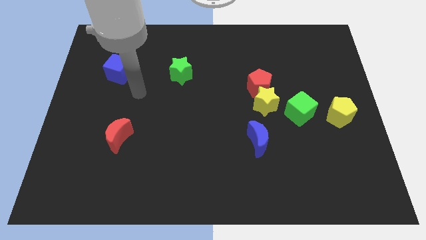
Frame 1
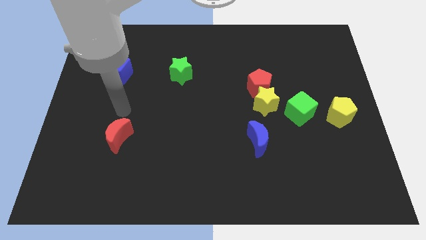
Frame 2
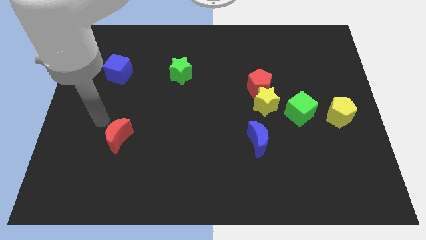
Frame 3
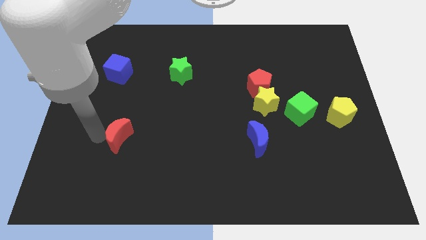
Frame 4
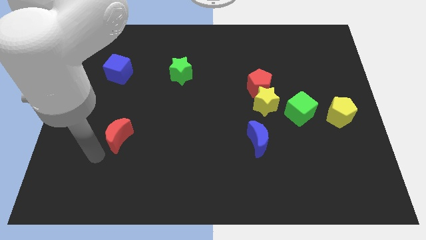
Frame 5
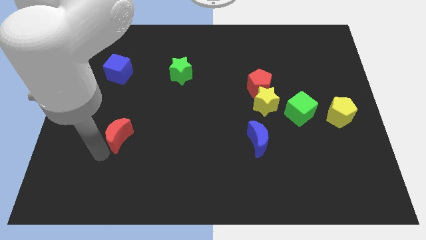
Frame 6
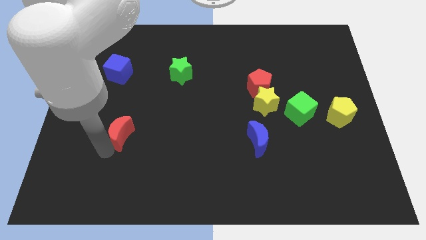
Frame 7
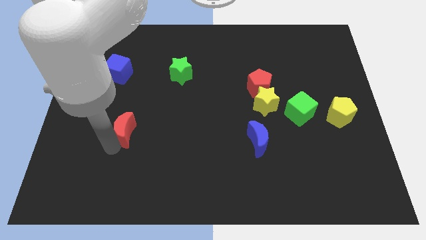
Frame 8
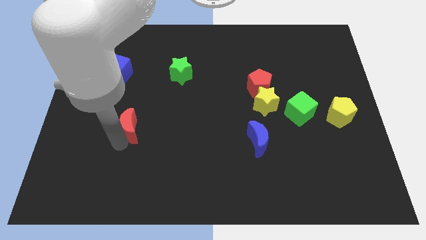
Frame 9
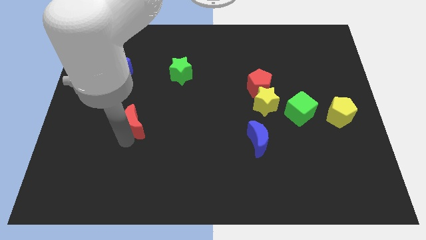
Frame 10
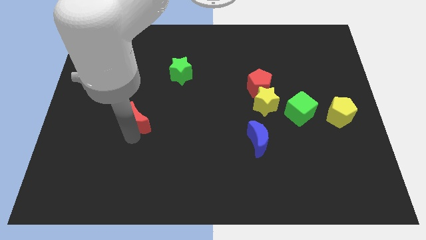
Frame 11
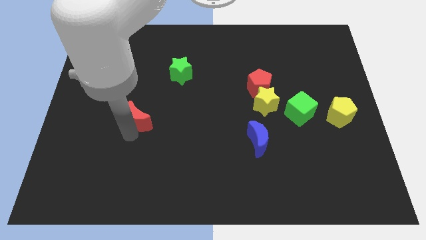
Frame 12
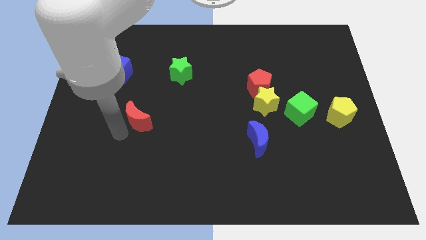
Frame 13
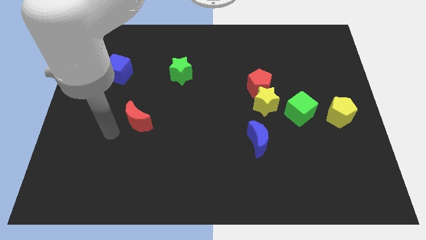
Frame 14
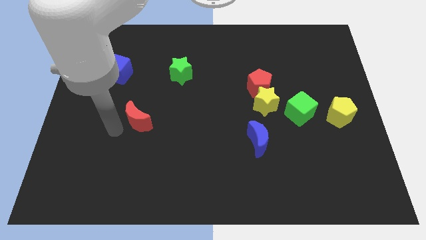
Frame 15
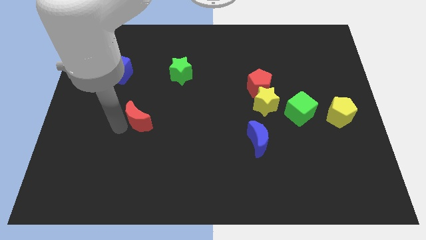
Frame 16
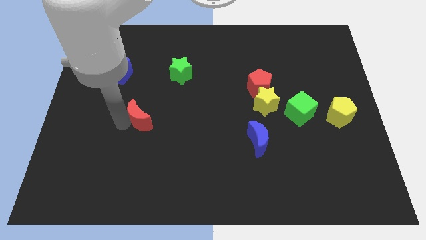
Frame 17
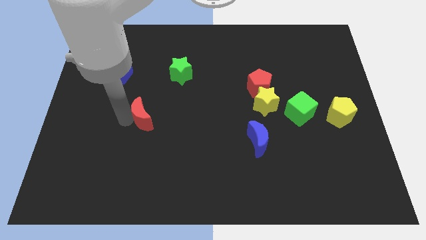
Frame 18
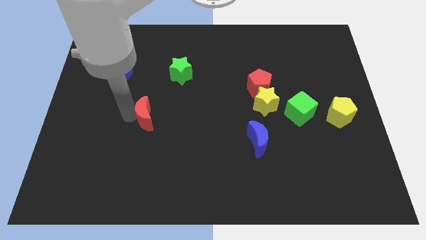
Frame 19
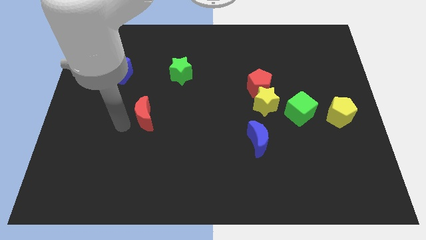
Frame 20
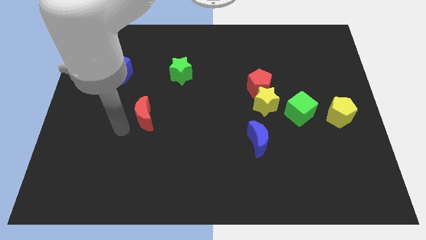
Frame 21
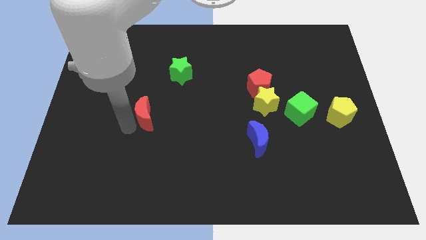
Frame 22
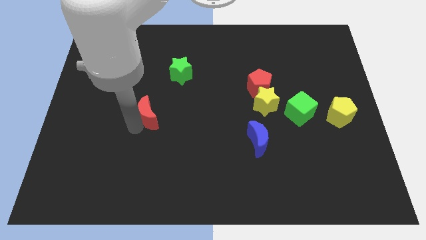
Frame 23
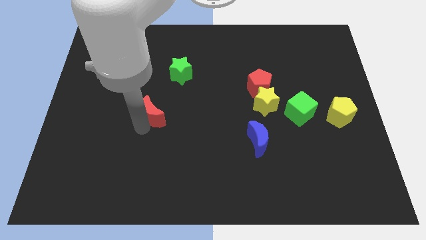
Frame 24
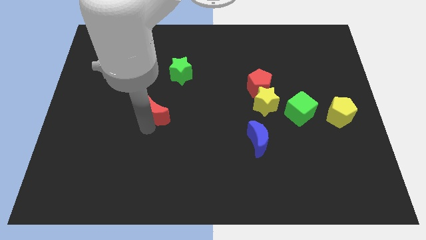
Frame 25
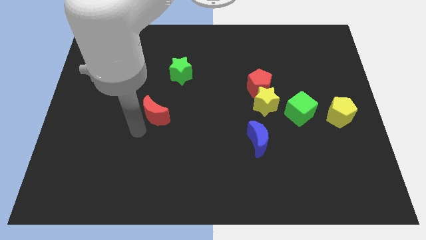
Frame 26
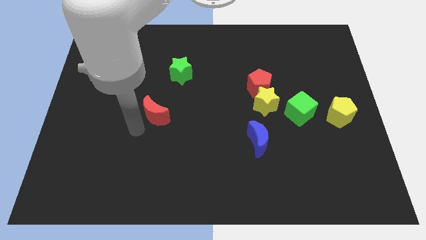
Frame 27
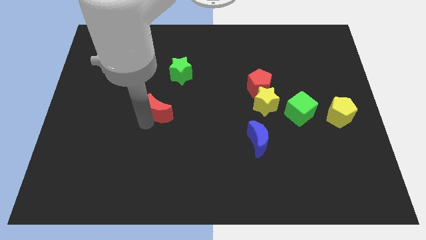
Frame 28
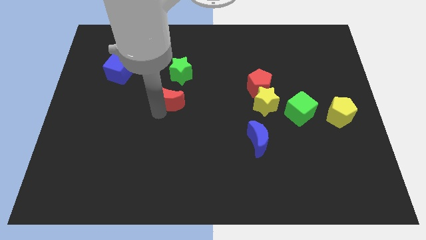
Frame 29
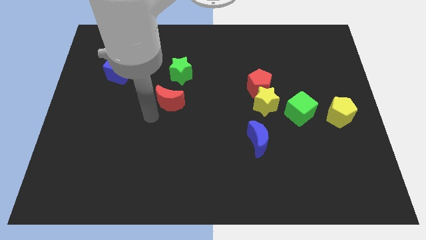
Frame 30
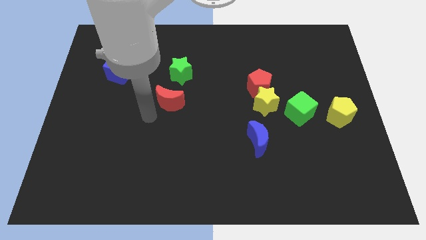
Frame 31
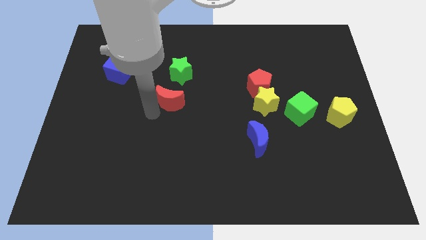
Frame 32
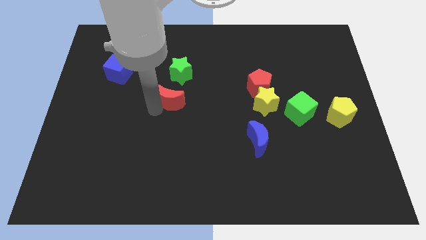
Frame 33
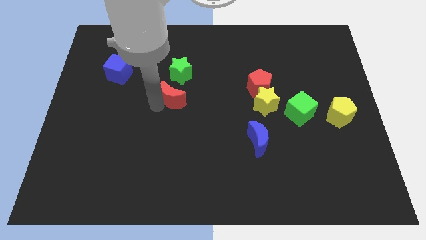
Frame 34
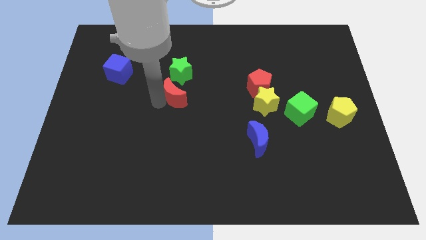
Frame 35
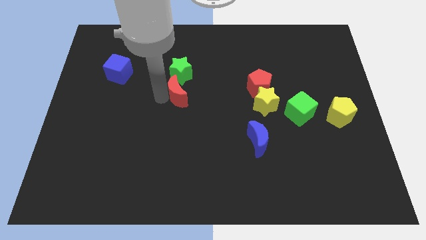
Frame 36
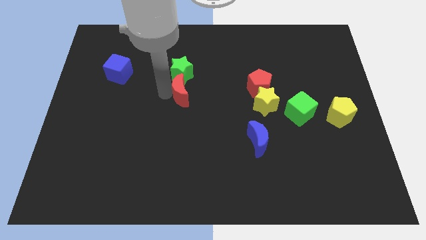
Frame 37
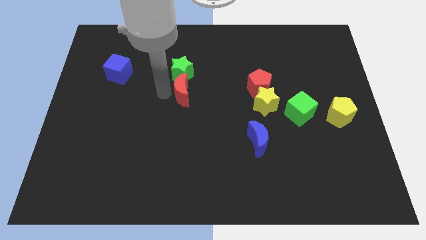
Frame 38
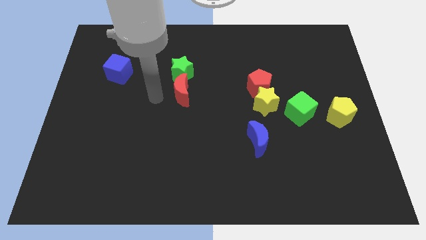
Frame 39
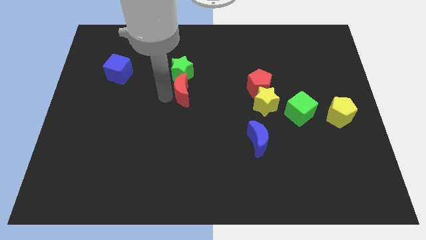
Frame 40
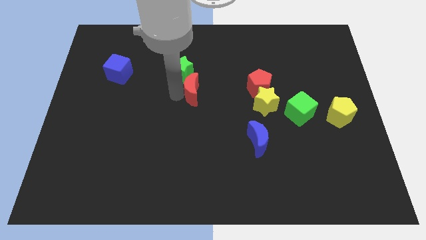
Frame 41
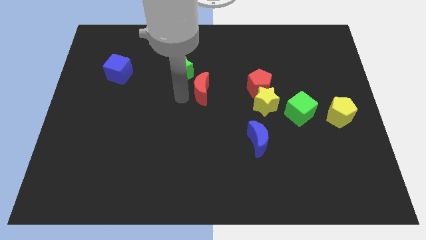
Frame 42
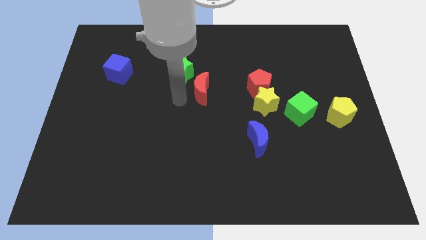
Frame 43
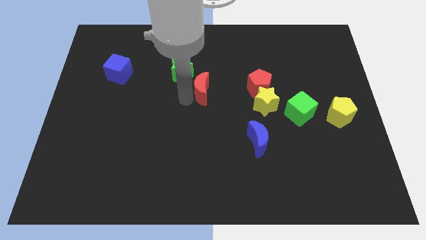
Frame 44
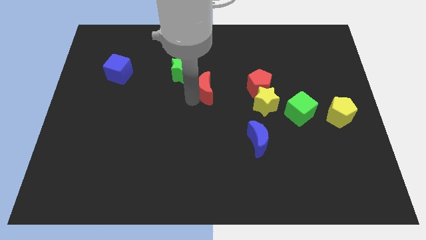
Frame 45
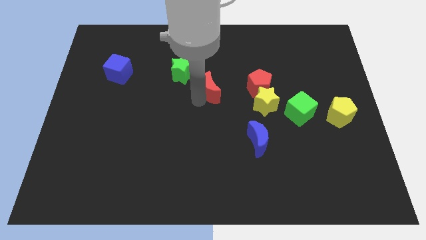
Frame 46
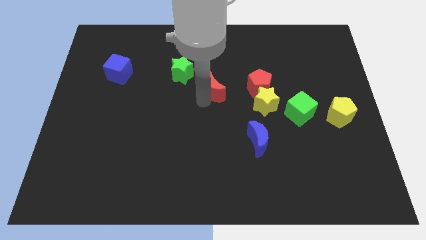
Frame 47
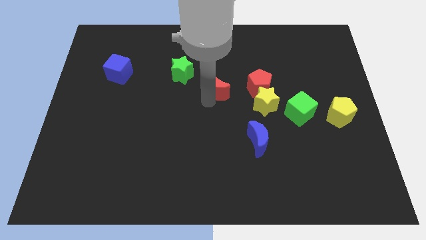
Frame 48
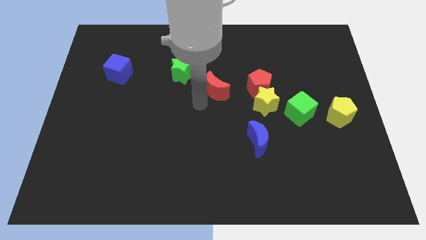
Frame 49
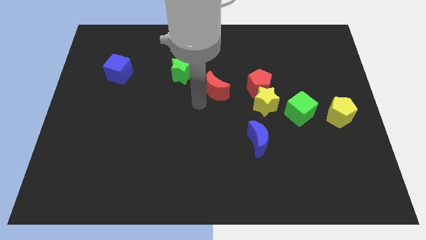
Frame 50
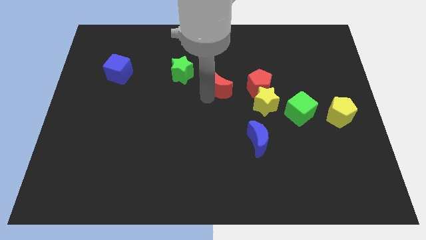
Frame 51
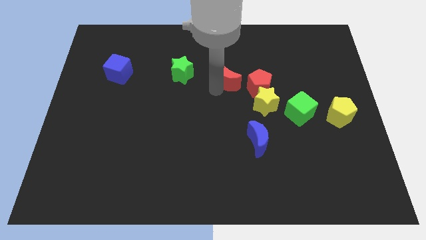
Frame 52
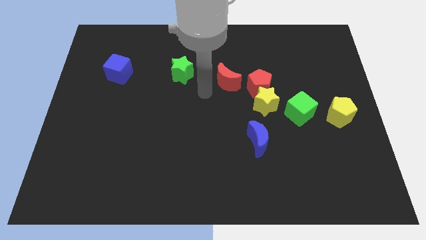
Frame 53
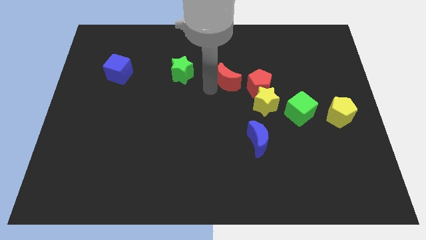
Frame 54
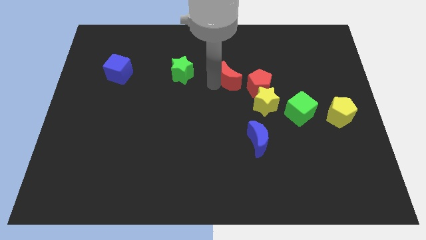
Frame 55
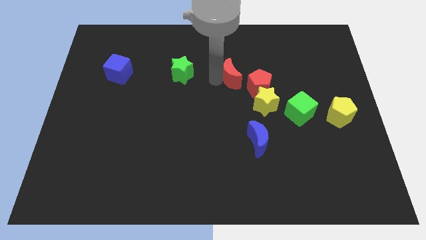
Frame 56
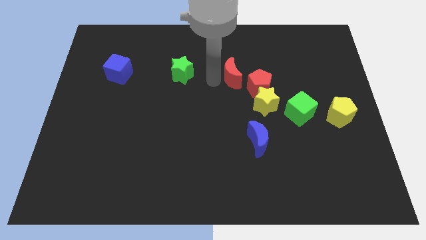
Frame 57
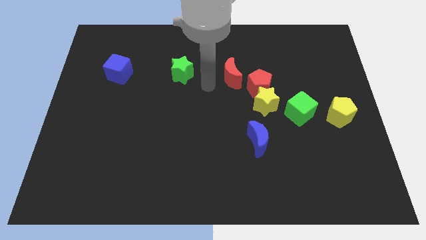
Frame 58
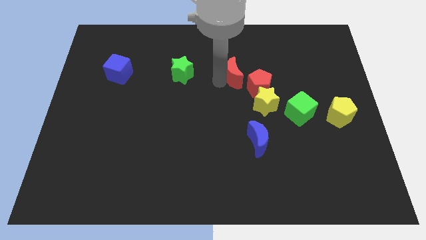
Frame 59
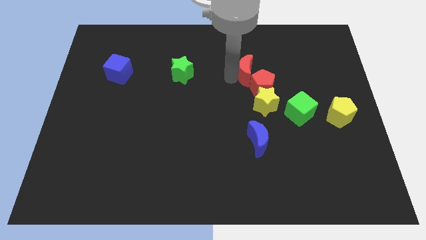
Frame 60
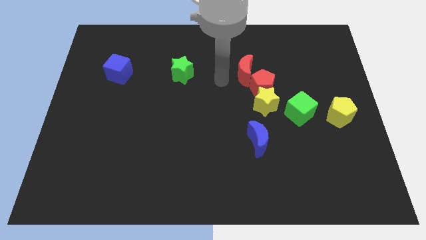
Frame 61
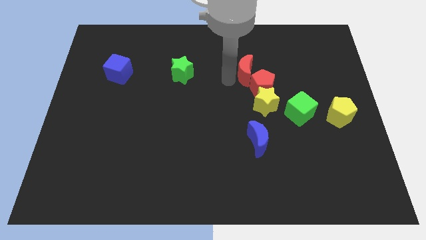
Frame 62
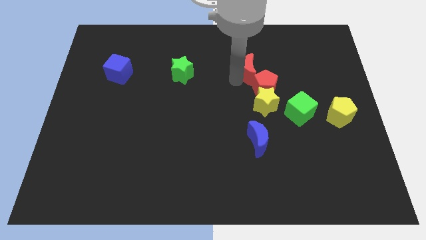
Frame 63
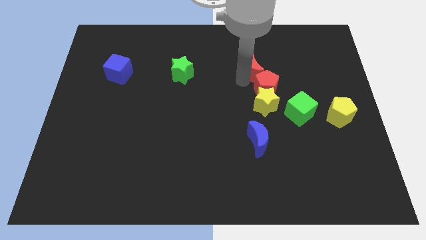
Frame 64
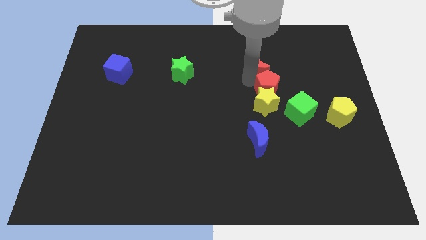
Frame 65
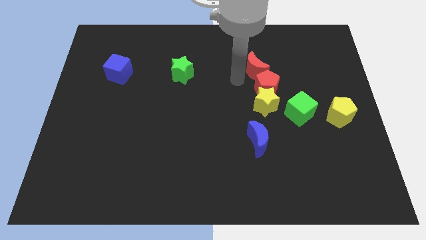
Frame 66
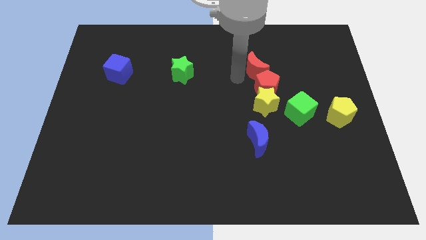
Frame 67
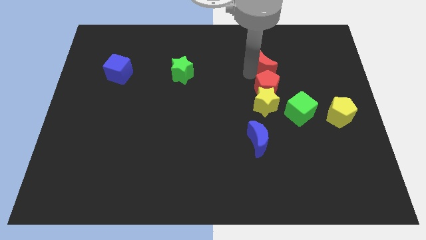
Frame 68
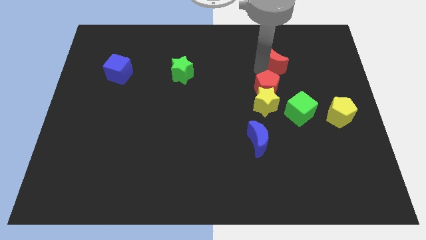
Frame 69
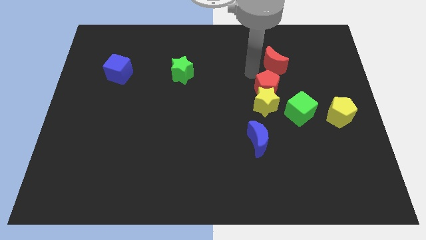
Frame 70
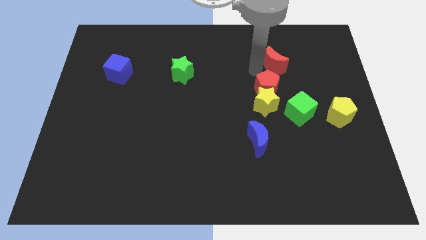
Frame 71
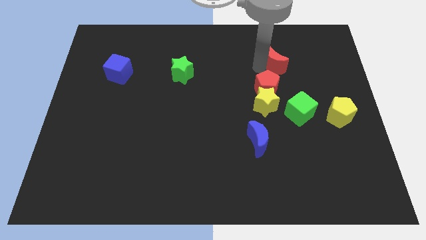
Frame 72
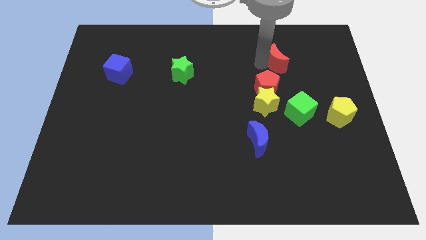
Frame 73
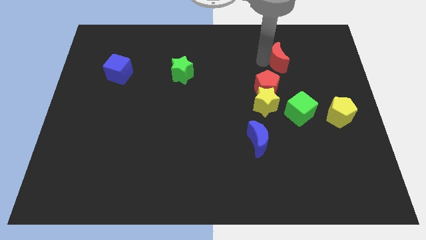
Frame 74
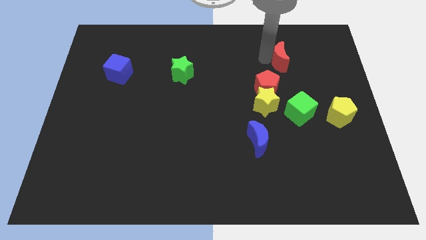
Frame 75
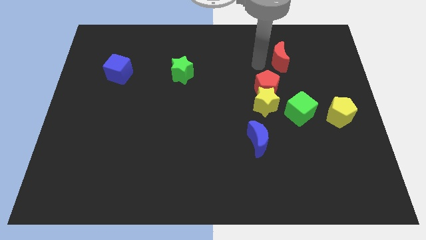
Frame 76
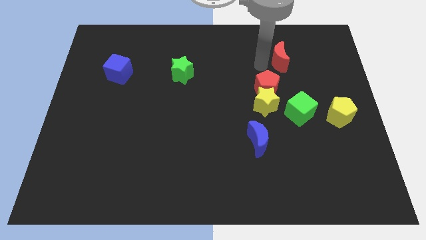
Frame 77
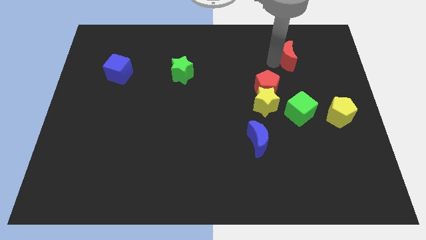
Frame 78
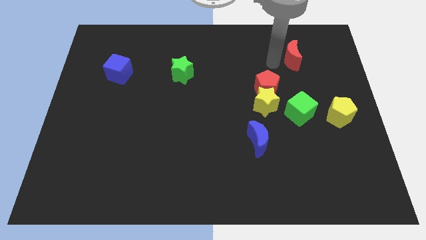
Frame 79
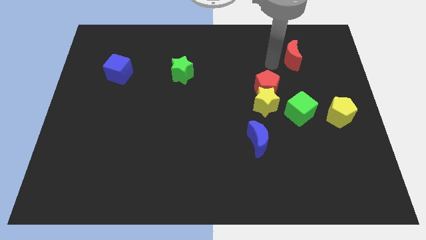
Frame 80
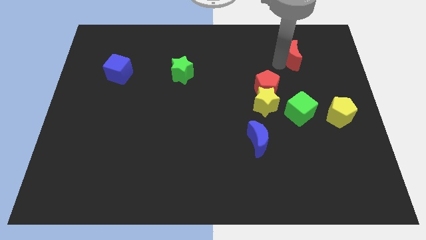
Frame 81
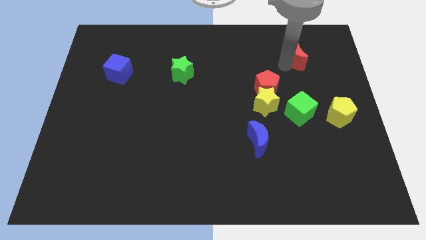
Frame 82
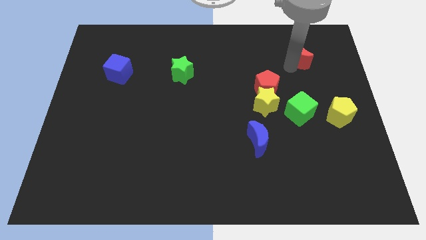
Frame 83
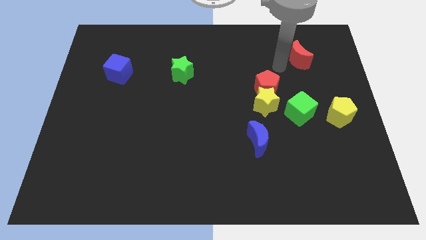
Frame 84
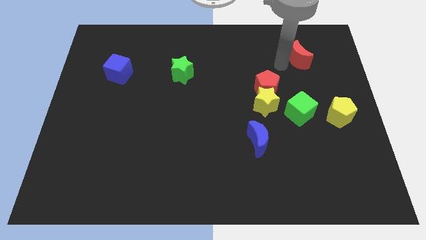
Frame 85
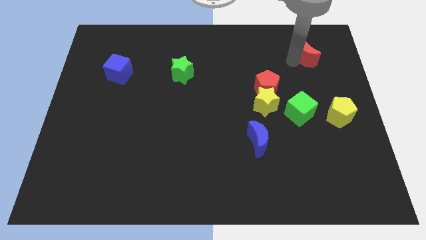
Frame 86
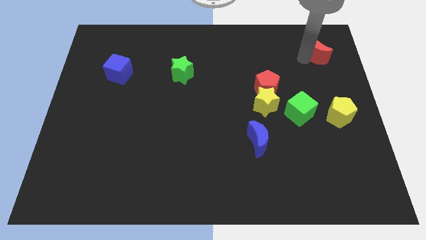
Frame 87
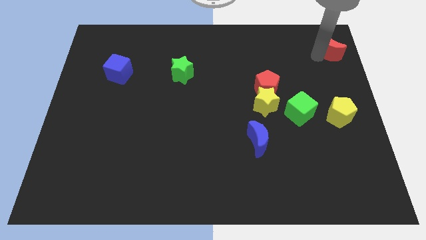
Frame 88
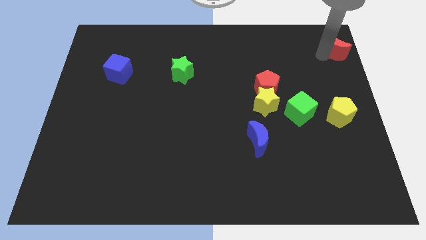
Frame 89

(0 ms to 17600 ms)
move the red moon to the top right of the board
